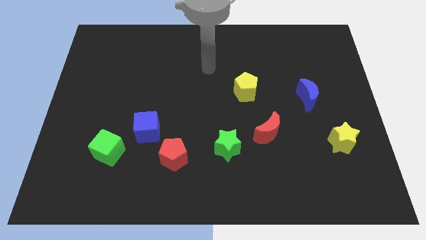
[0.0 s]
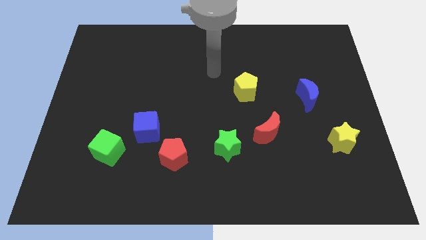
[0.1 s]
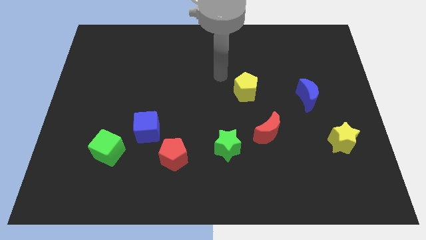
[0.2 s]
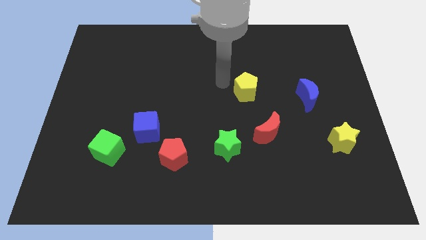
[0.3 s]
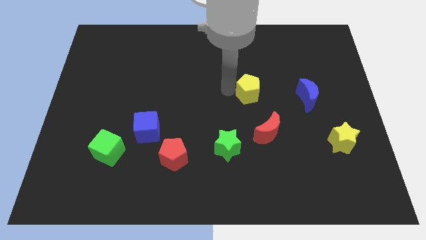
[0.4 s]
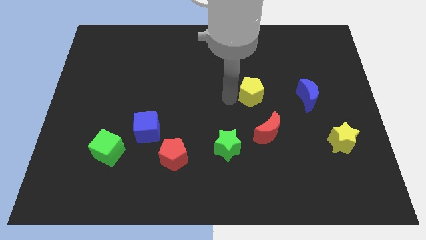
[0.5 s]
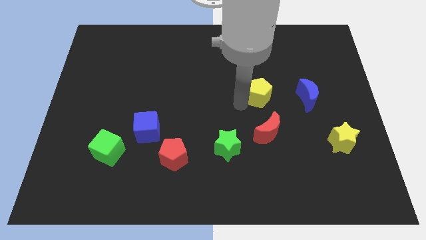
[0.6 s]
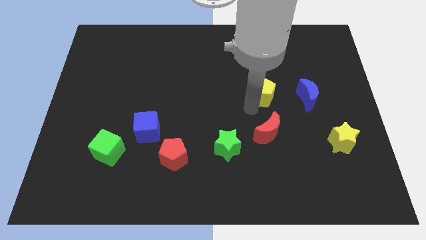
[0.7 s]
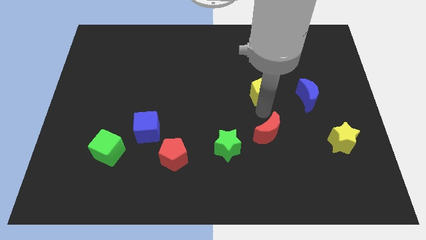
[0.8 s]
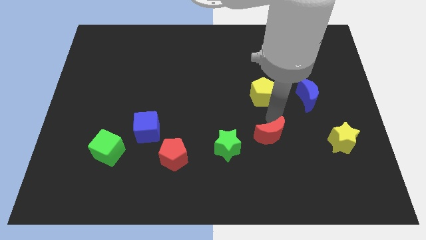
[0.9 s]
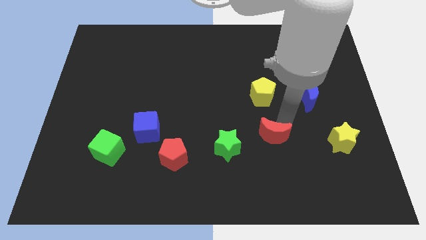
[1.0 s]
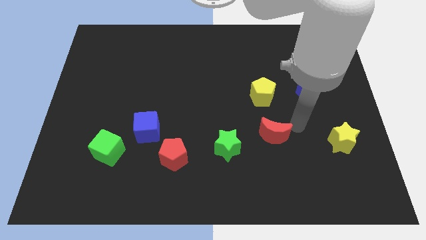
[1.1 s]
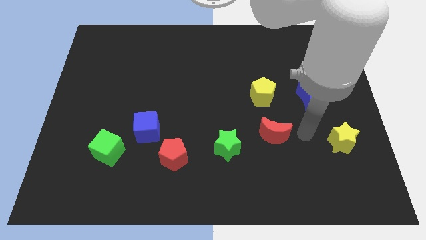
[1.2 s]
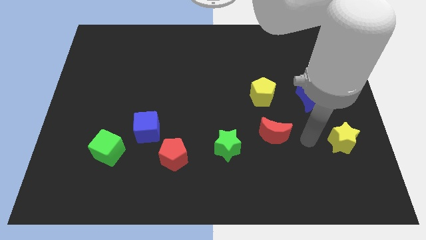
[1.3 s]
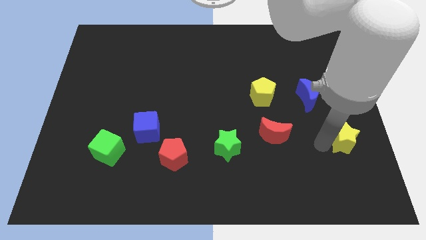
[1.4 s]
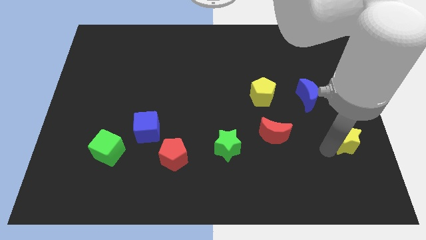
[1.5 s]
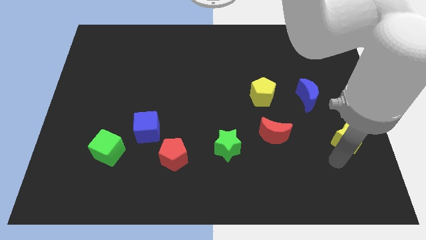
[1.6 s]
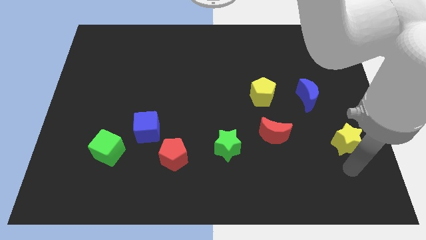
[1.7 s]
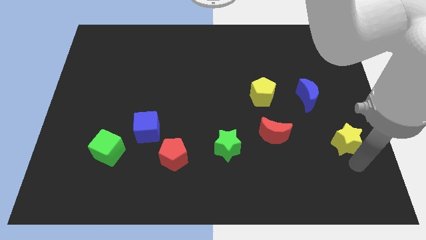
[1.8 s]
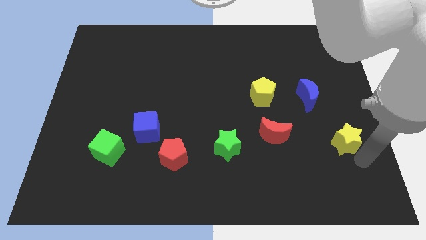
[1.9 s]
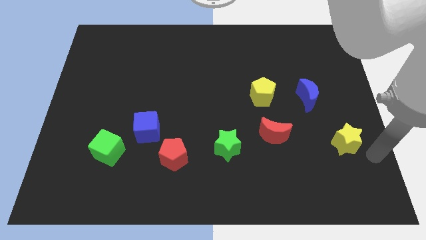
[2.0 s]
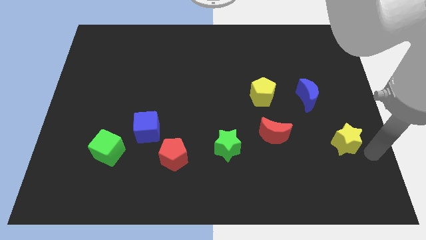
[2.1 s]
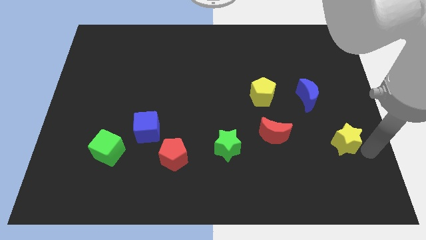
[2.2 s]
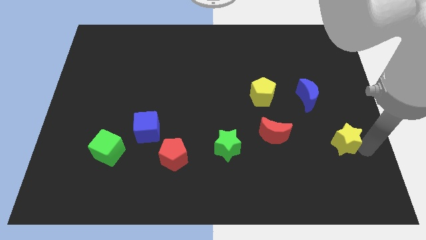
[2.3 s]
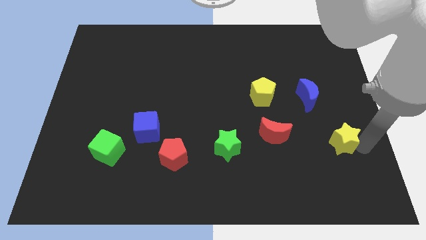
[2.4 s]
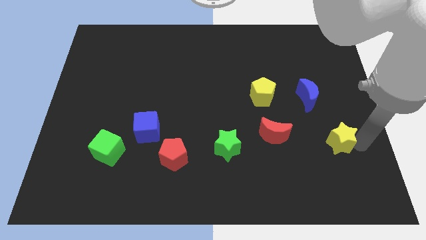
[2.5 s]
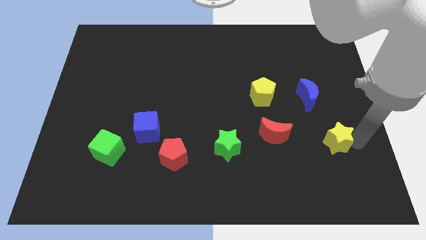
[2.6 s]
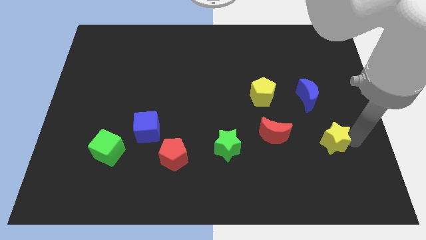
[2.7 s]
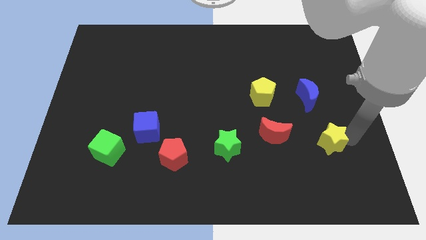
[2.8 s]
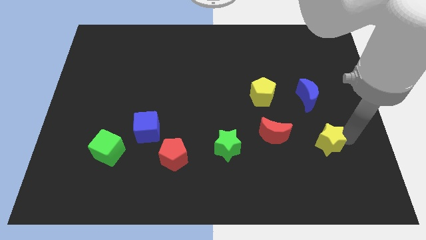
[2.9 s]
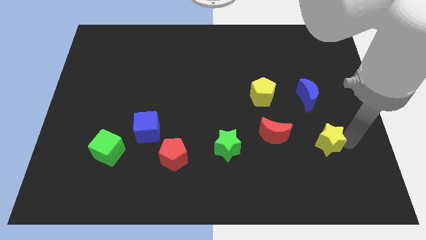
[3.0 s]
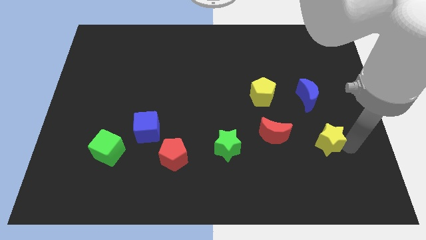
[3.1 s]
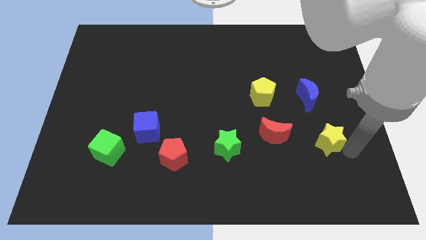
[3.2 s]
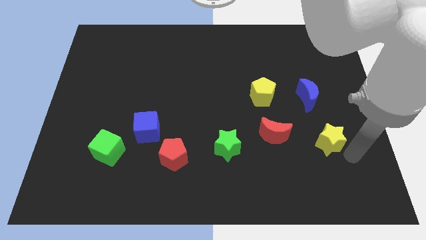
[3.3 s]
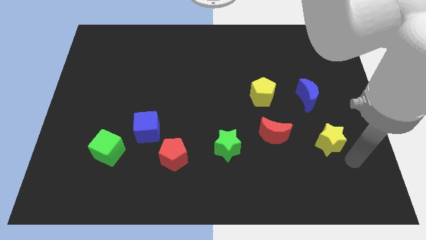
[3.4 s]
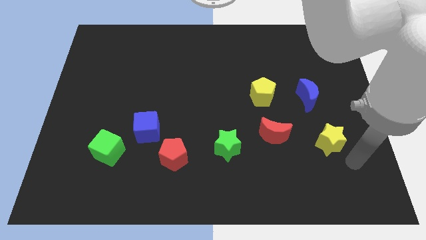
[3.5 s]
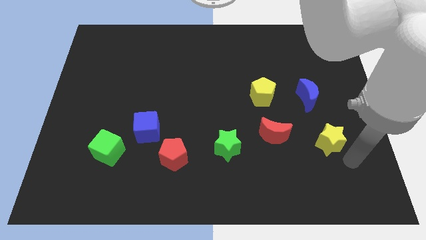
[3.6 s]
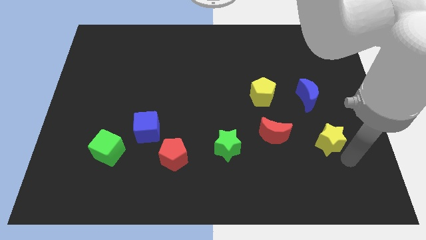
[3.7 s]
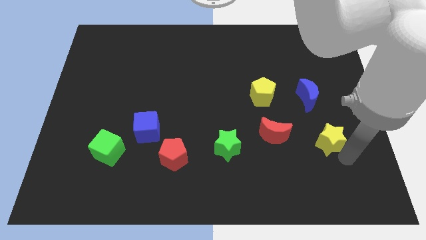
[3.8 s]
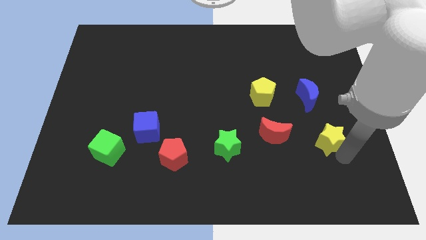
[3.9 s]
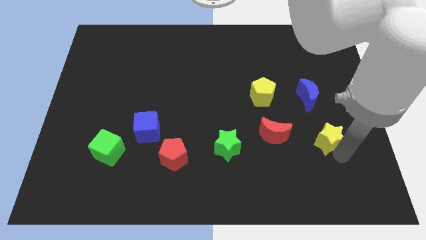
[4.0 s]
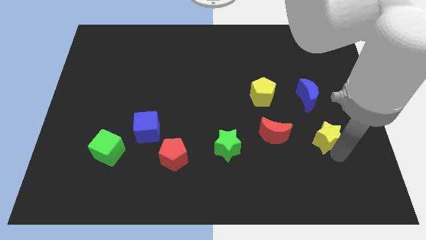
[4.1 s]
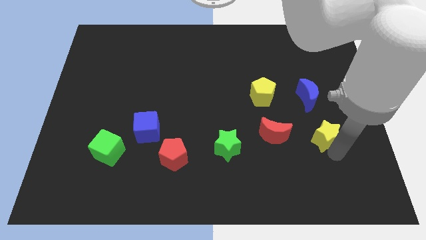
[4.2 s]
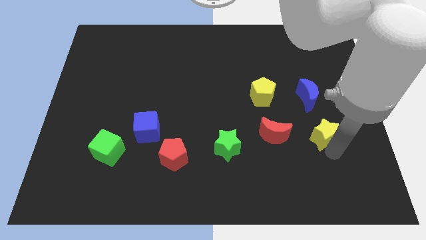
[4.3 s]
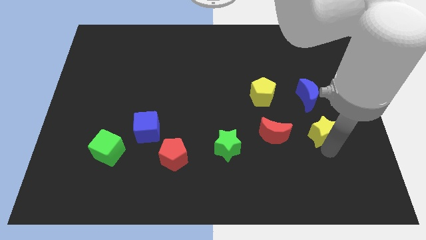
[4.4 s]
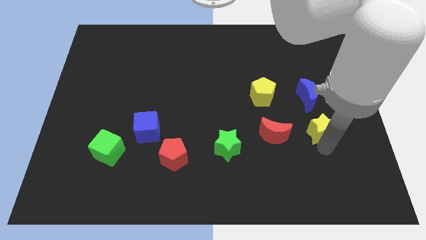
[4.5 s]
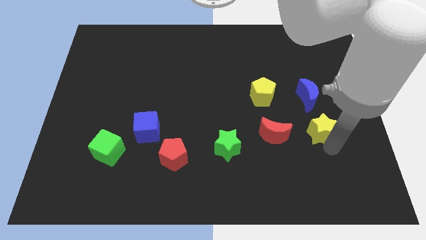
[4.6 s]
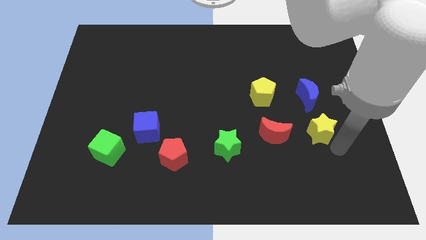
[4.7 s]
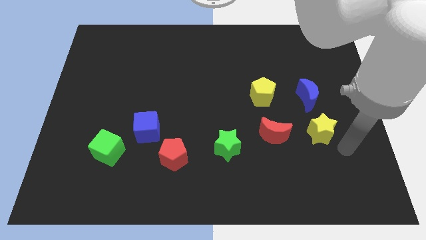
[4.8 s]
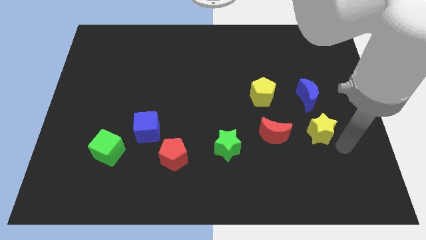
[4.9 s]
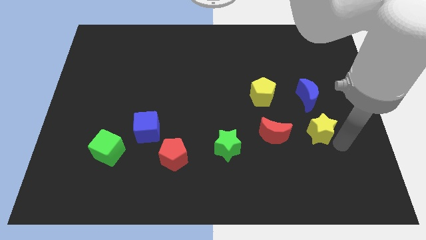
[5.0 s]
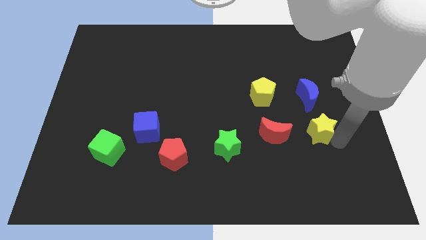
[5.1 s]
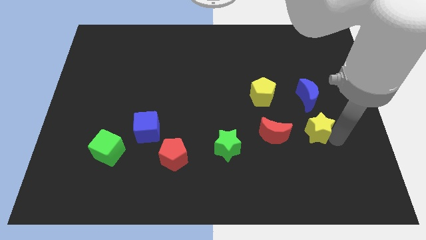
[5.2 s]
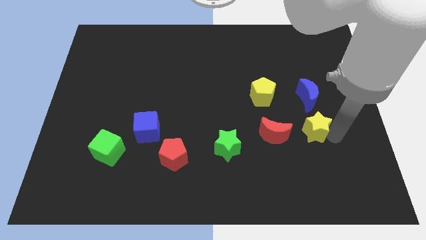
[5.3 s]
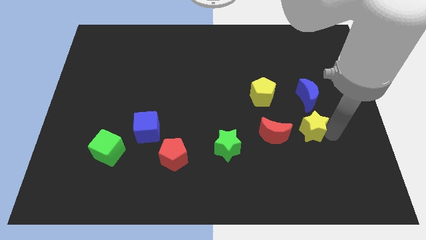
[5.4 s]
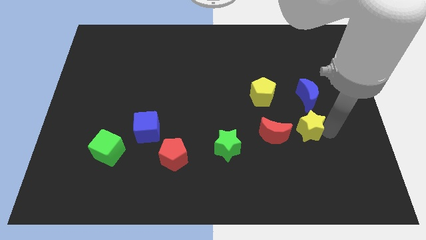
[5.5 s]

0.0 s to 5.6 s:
push the yellow star diagonally up and to the right of the red moon

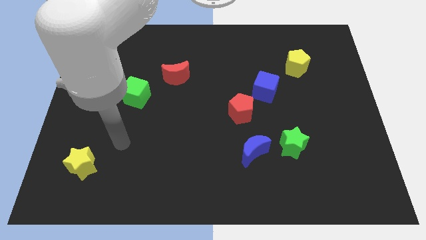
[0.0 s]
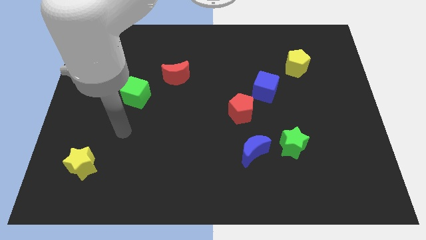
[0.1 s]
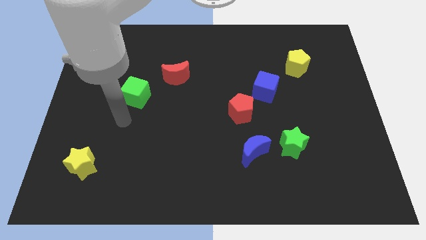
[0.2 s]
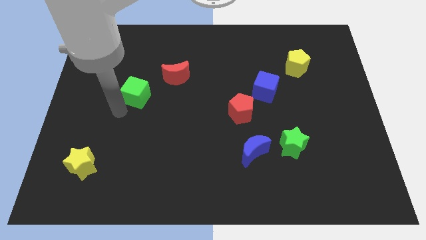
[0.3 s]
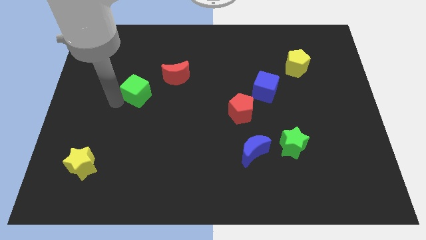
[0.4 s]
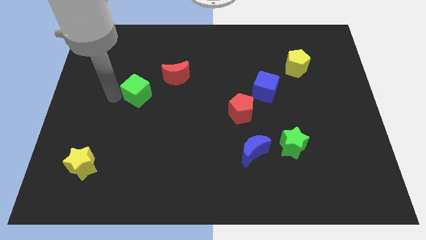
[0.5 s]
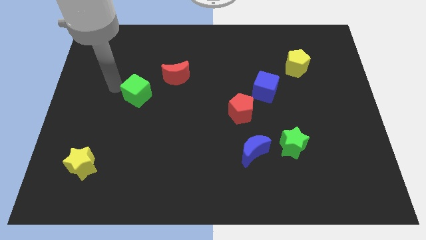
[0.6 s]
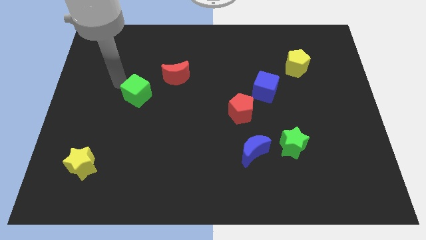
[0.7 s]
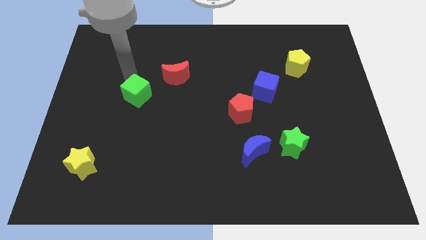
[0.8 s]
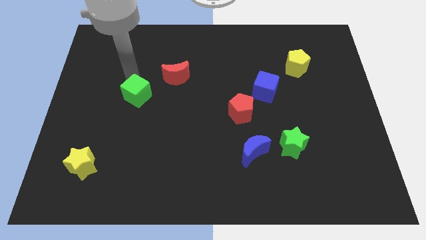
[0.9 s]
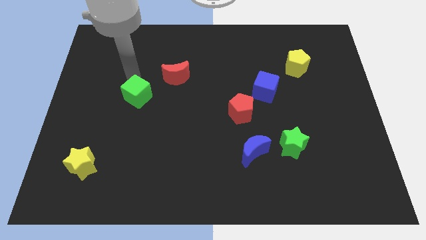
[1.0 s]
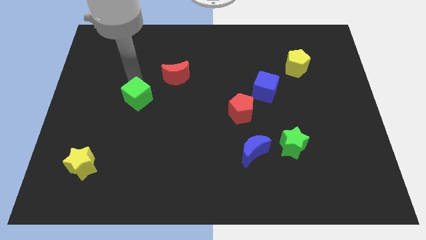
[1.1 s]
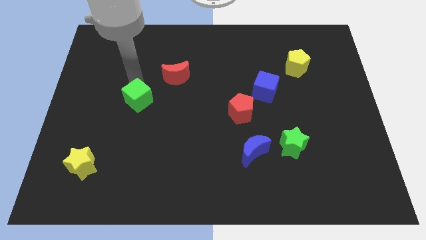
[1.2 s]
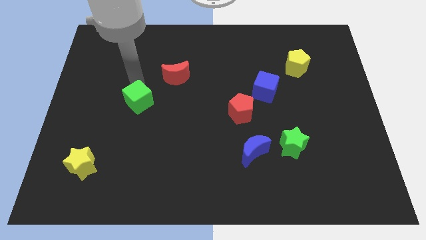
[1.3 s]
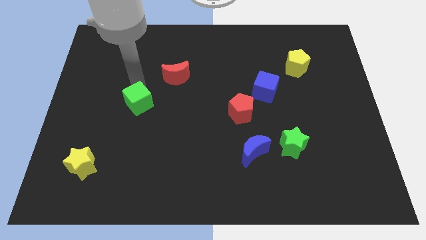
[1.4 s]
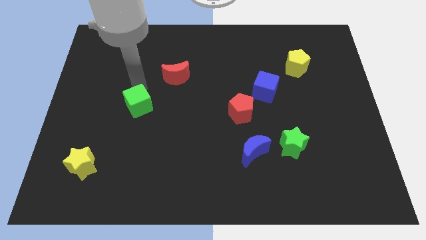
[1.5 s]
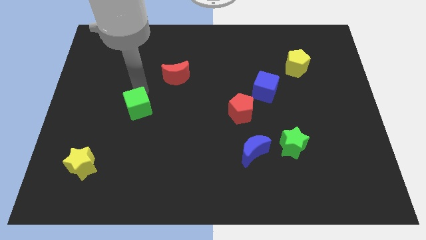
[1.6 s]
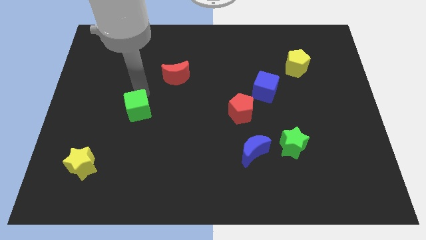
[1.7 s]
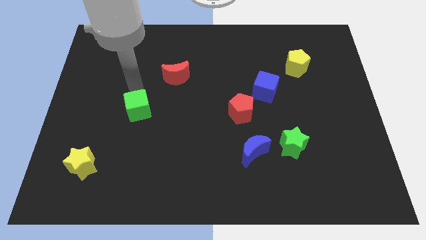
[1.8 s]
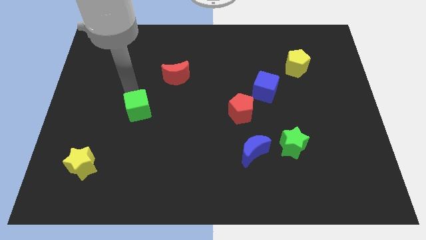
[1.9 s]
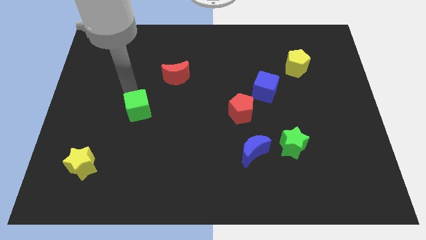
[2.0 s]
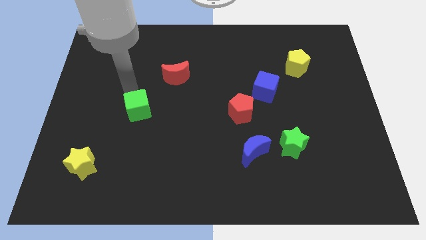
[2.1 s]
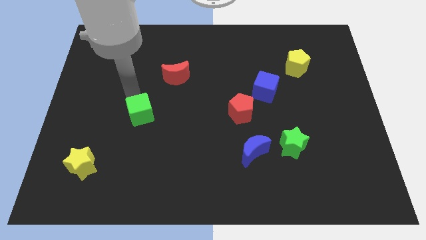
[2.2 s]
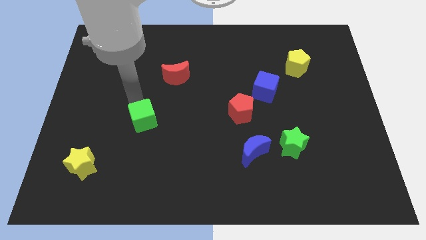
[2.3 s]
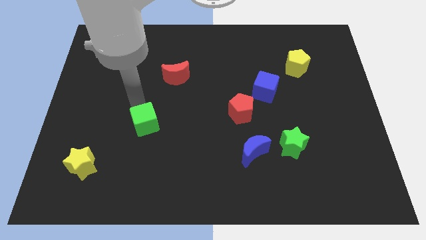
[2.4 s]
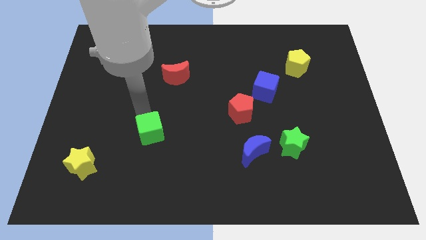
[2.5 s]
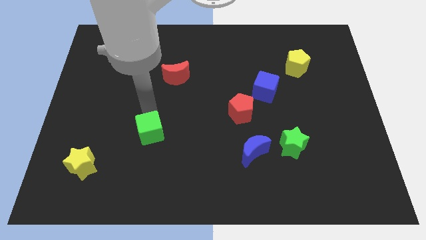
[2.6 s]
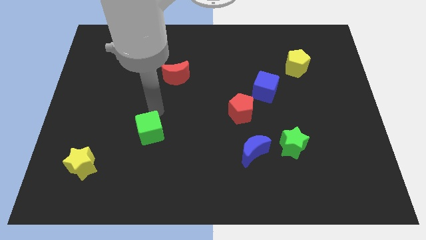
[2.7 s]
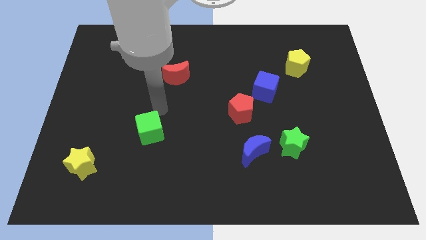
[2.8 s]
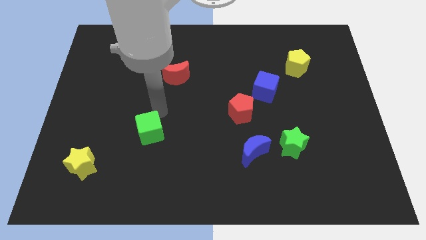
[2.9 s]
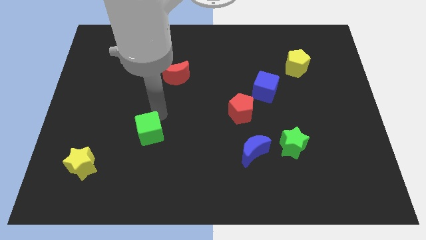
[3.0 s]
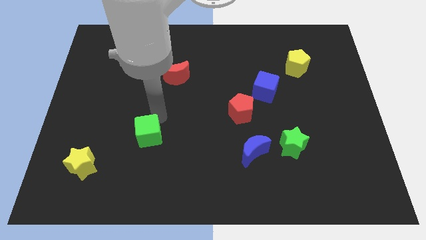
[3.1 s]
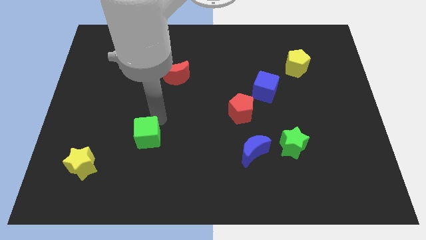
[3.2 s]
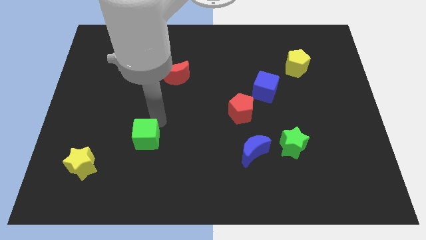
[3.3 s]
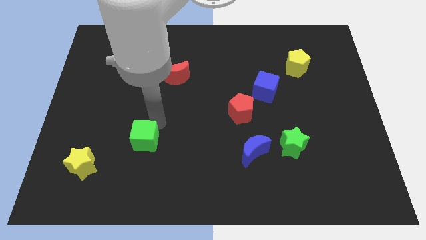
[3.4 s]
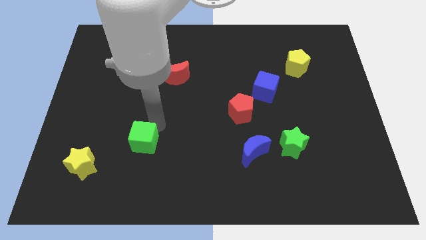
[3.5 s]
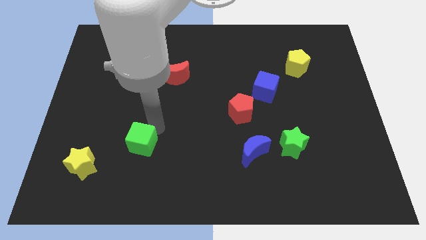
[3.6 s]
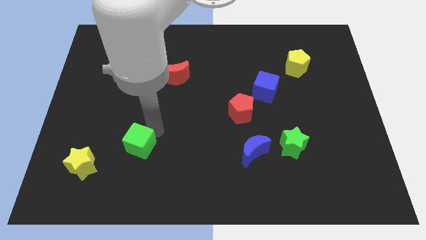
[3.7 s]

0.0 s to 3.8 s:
push the green cube just right of the yellow star
